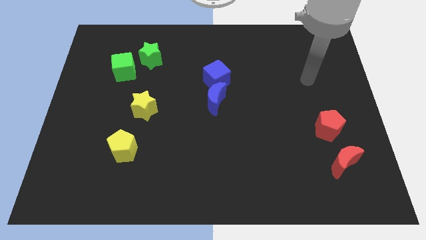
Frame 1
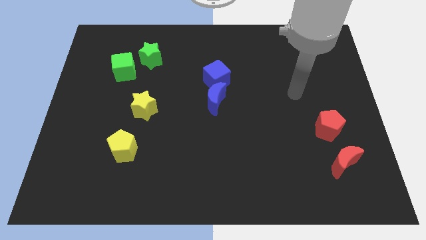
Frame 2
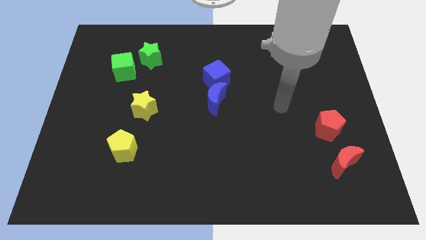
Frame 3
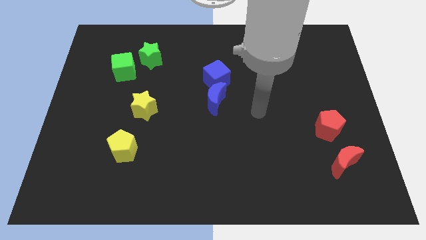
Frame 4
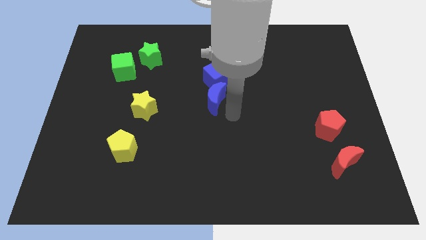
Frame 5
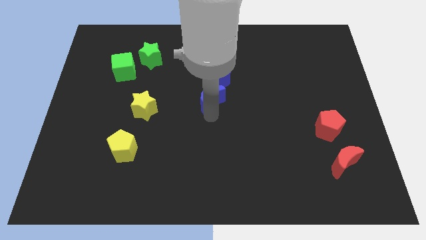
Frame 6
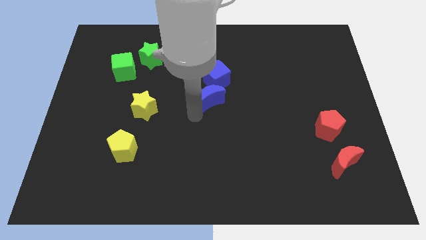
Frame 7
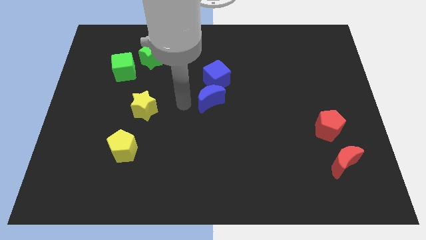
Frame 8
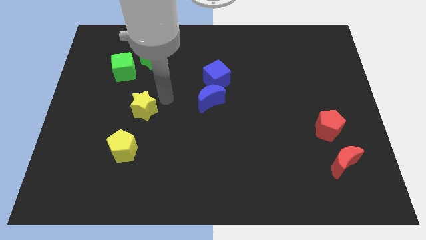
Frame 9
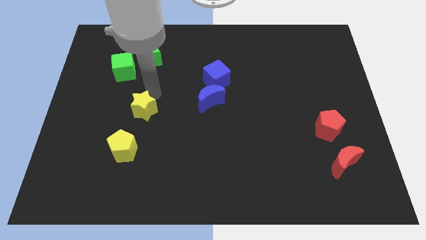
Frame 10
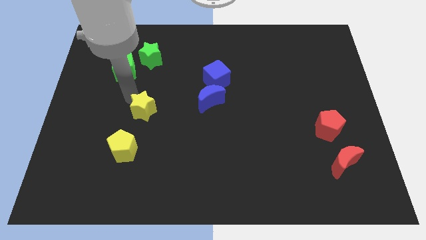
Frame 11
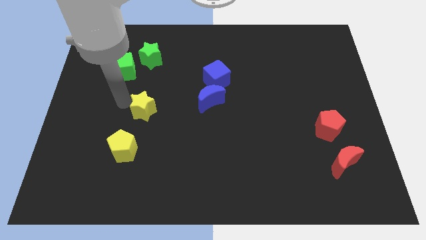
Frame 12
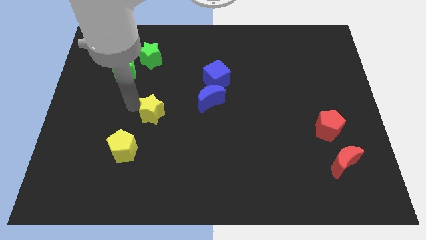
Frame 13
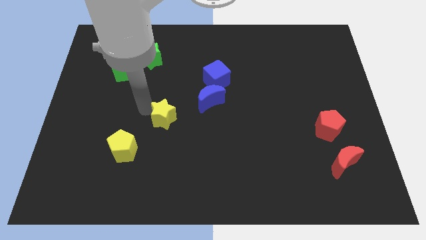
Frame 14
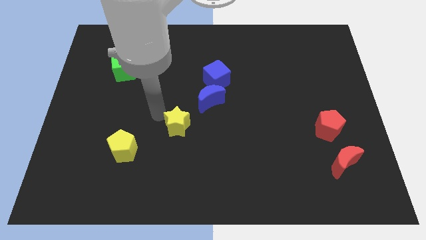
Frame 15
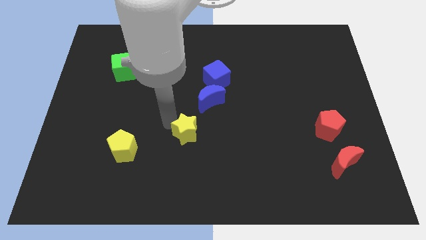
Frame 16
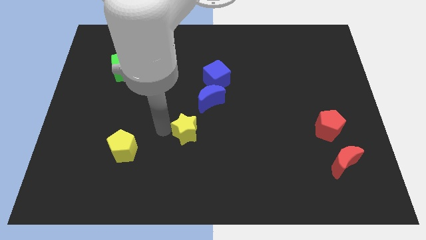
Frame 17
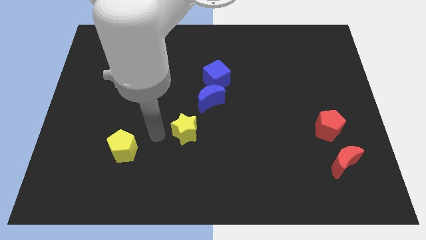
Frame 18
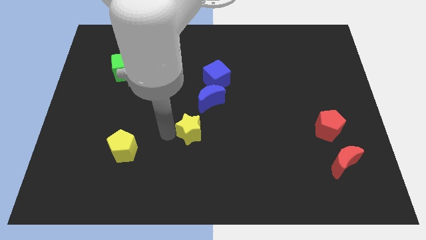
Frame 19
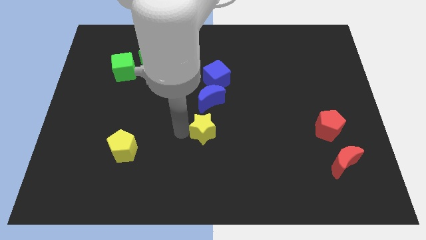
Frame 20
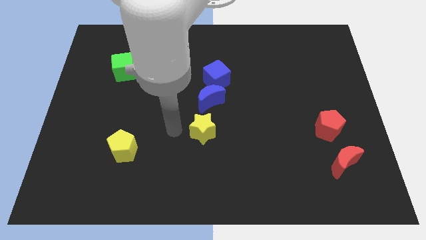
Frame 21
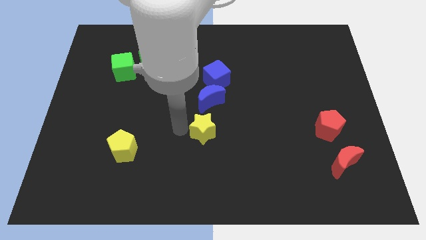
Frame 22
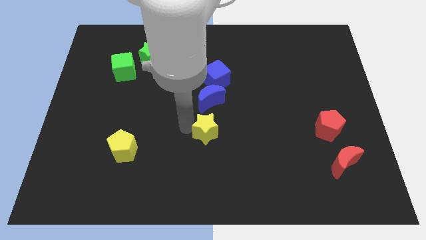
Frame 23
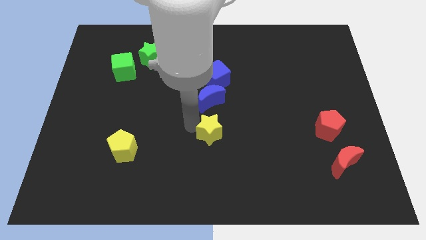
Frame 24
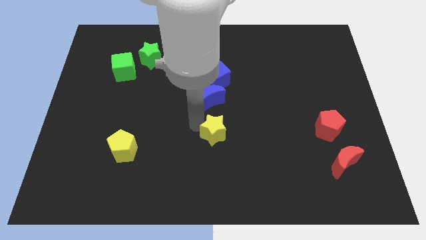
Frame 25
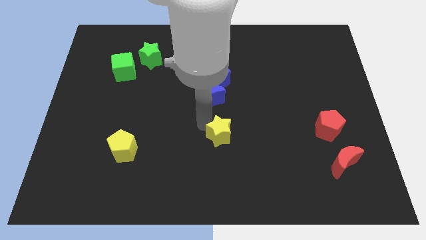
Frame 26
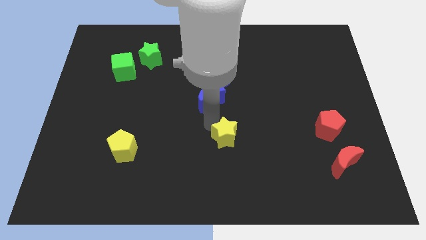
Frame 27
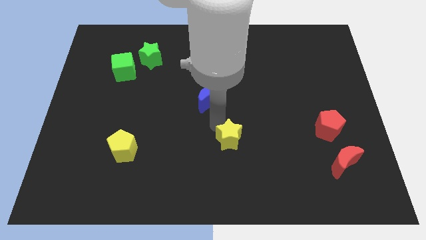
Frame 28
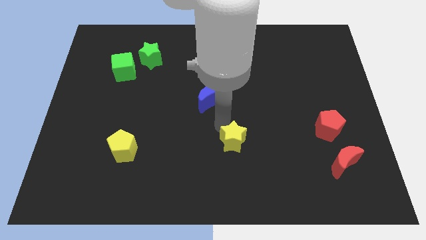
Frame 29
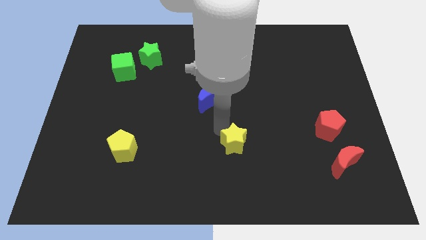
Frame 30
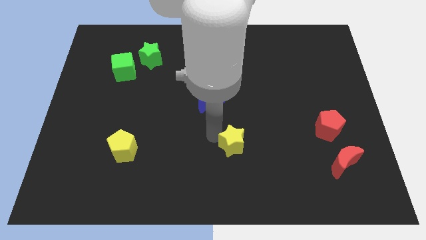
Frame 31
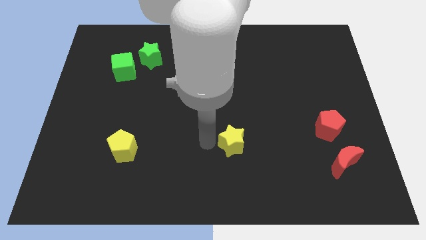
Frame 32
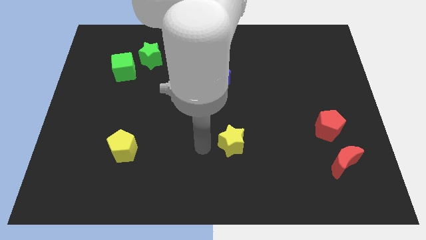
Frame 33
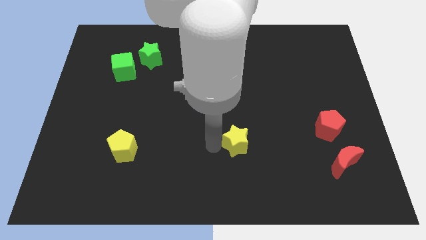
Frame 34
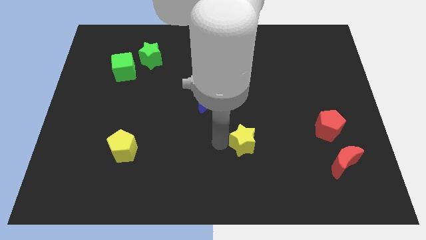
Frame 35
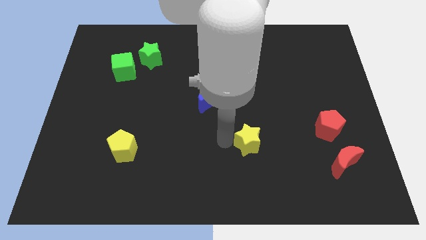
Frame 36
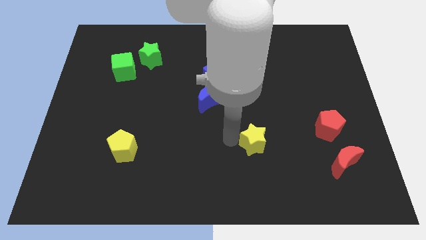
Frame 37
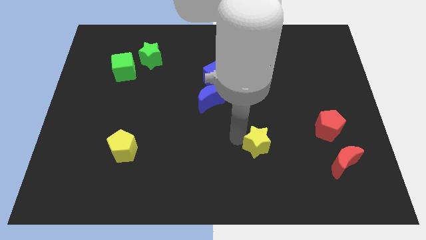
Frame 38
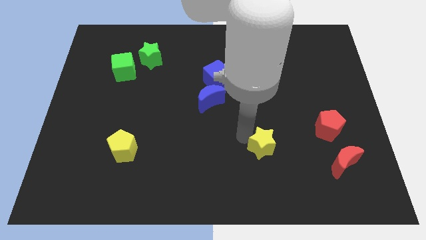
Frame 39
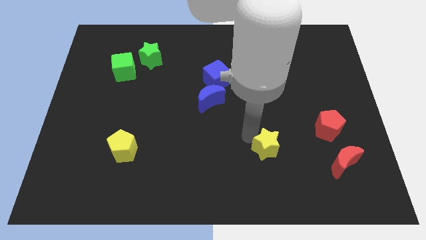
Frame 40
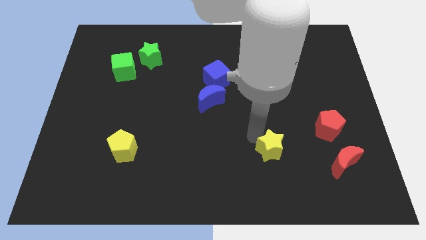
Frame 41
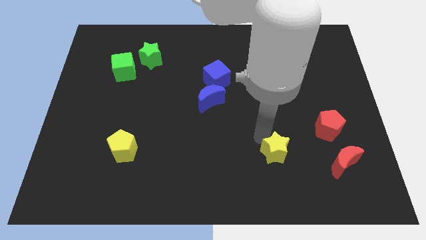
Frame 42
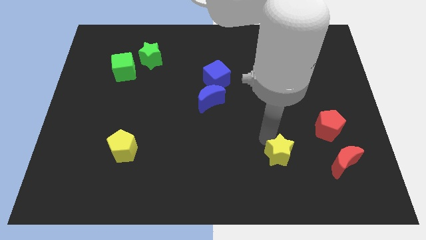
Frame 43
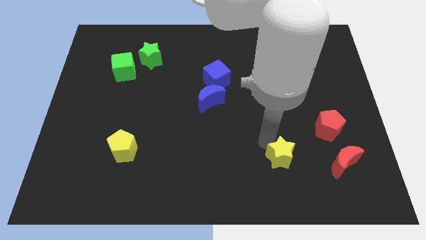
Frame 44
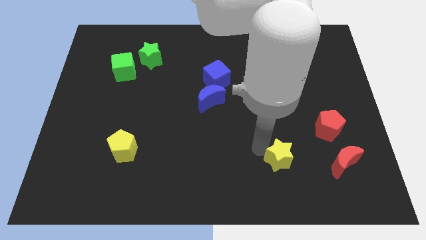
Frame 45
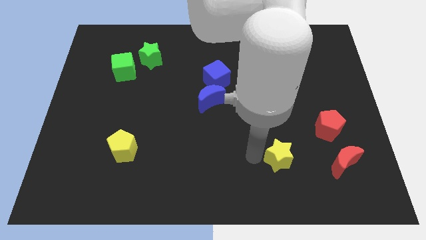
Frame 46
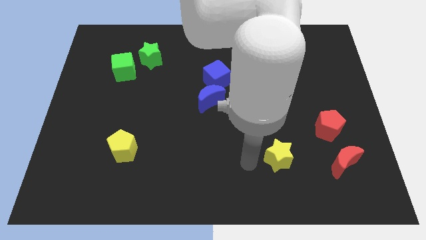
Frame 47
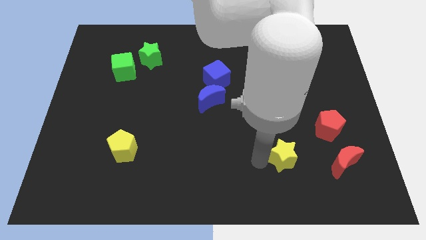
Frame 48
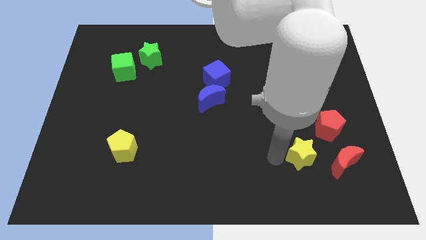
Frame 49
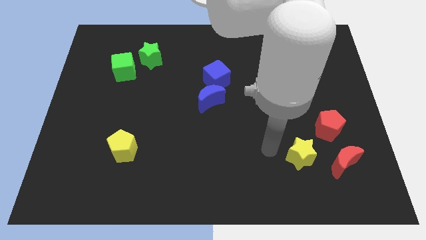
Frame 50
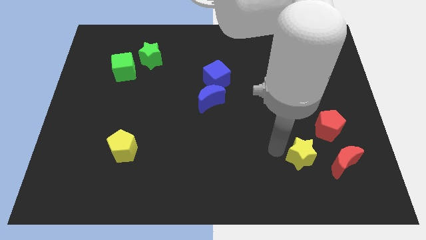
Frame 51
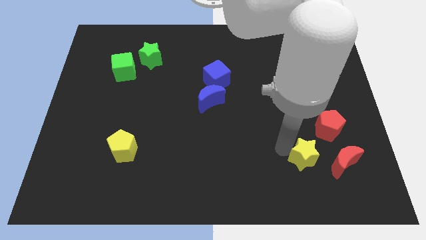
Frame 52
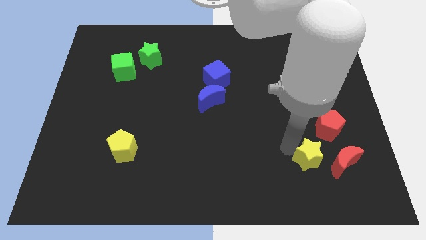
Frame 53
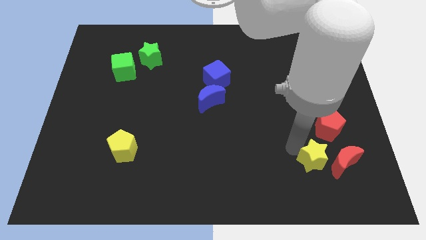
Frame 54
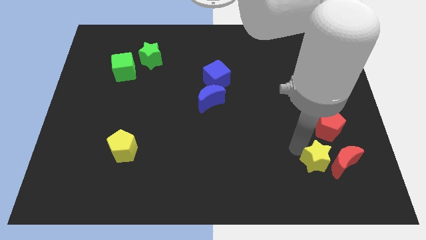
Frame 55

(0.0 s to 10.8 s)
push the yellow star next to the red moon

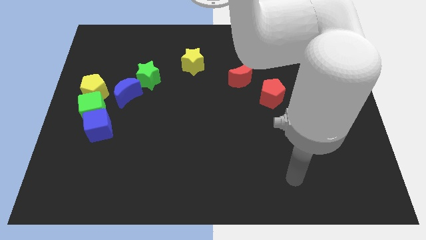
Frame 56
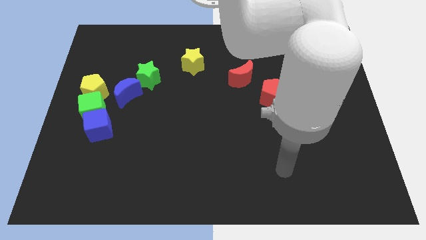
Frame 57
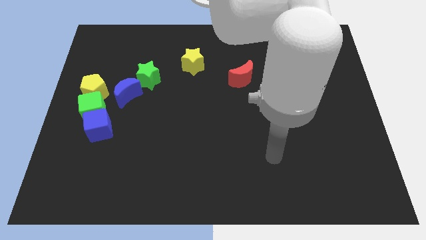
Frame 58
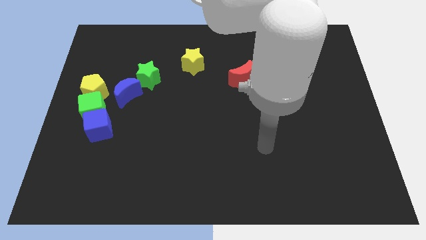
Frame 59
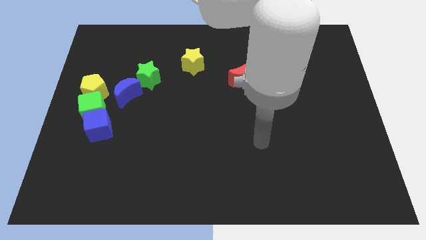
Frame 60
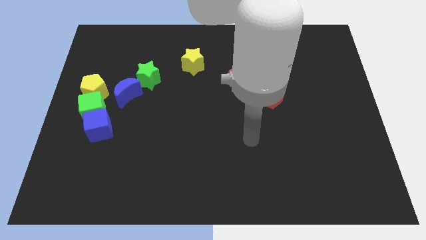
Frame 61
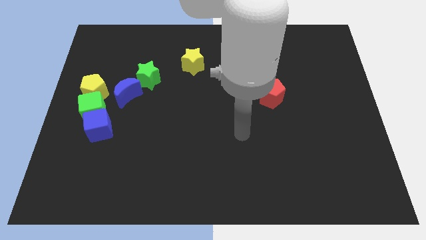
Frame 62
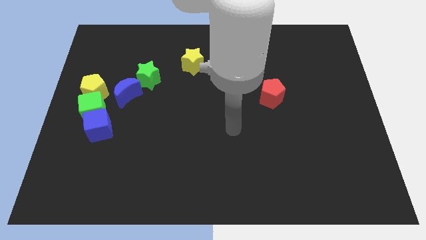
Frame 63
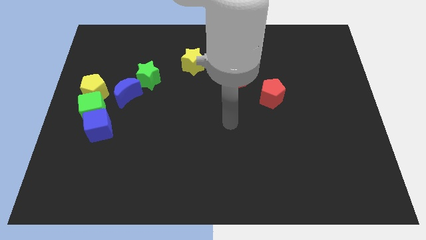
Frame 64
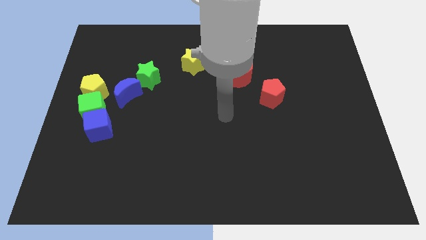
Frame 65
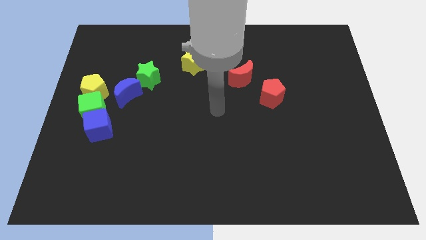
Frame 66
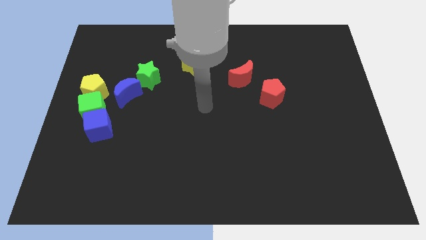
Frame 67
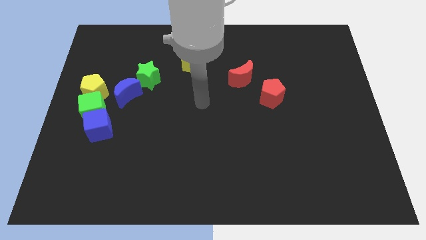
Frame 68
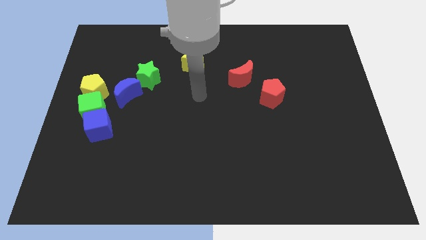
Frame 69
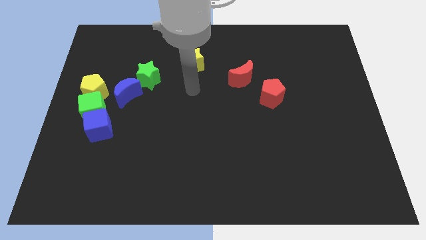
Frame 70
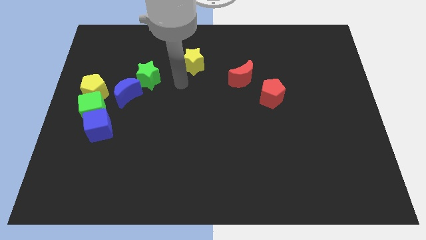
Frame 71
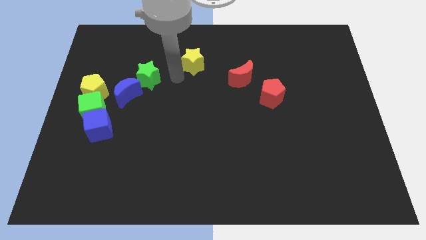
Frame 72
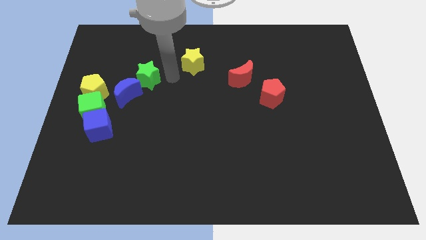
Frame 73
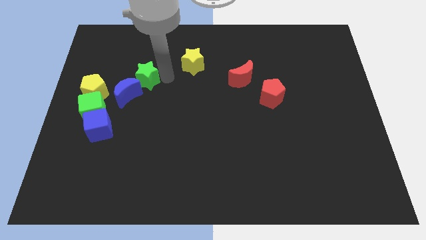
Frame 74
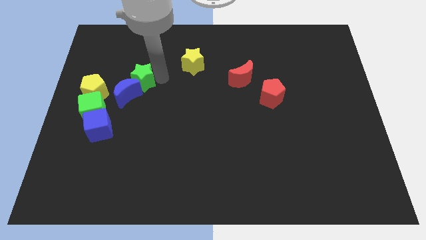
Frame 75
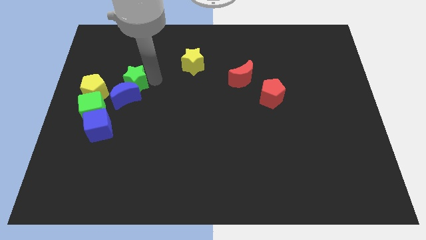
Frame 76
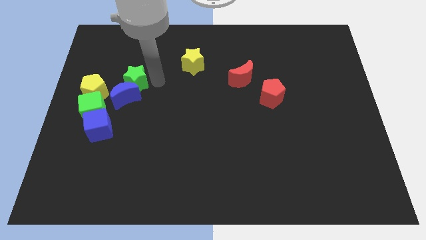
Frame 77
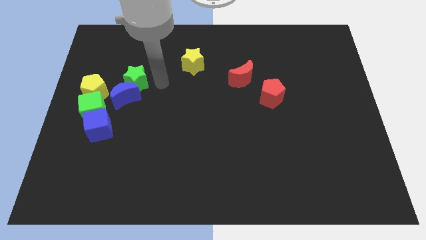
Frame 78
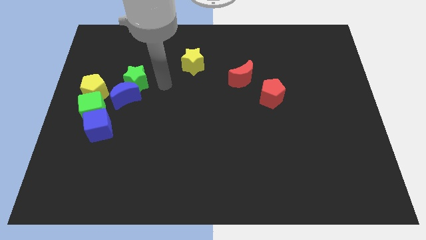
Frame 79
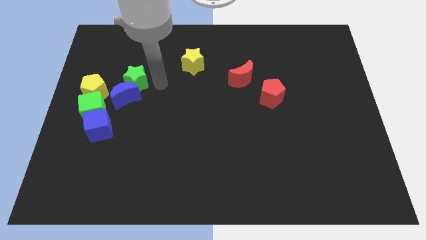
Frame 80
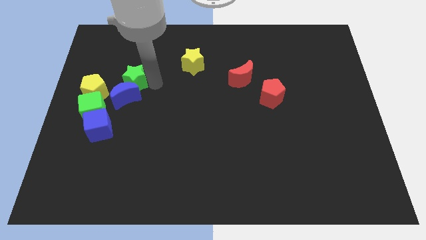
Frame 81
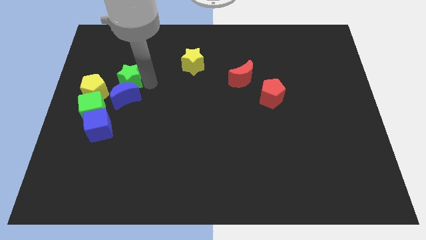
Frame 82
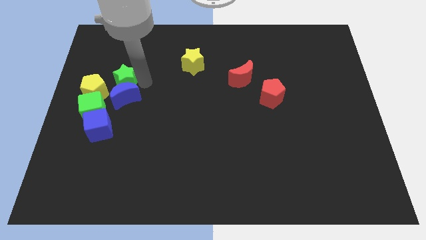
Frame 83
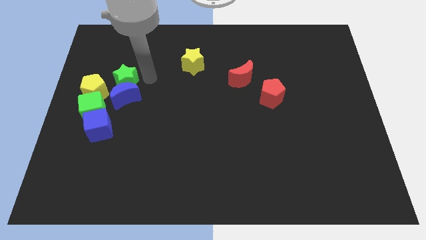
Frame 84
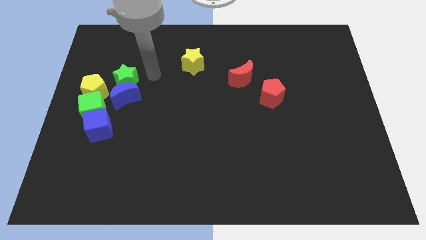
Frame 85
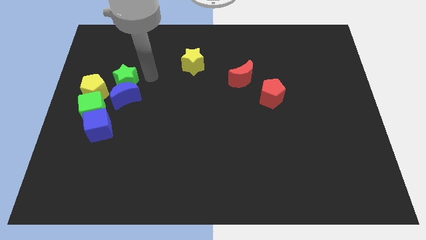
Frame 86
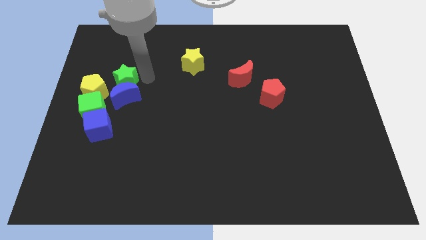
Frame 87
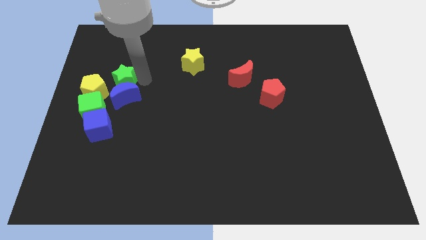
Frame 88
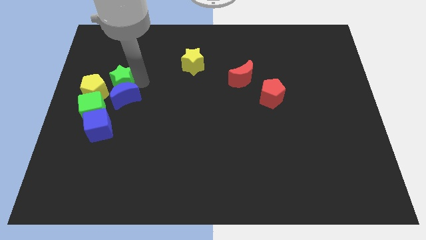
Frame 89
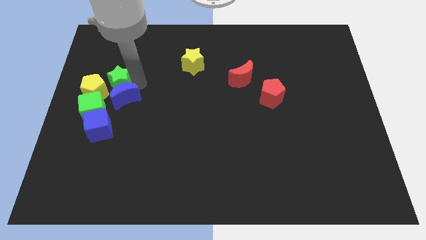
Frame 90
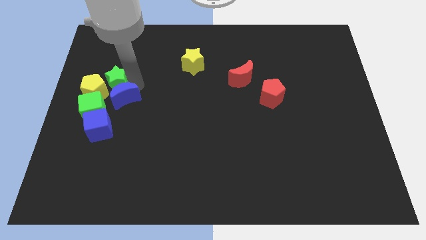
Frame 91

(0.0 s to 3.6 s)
push the green star to the yellow pentagon
